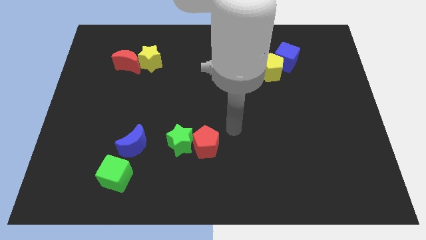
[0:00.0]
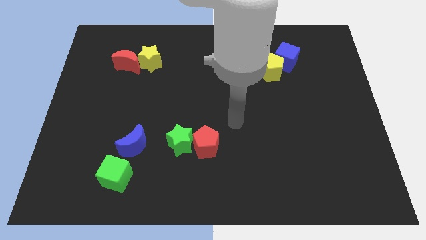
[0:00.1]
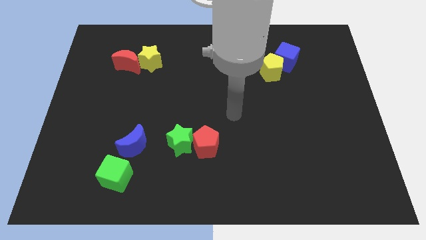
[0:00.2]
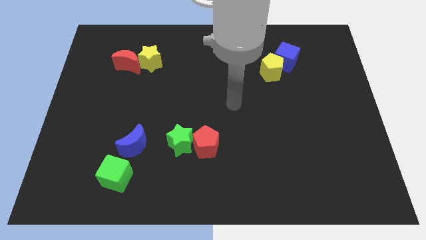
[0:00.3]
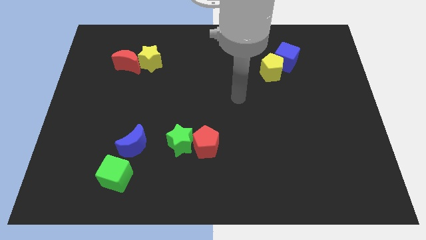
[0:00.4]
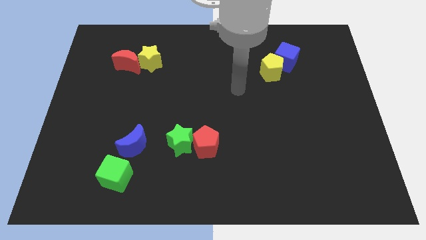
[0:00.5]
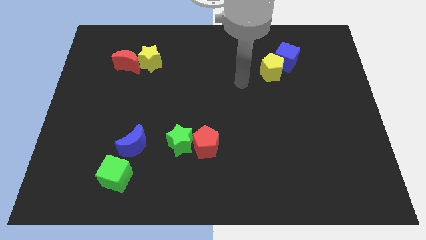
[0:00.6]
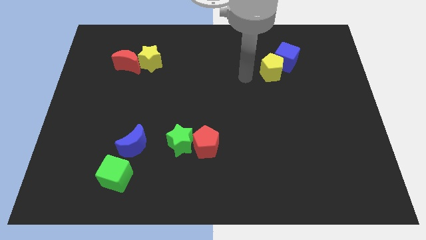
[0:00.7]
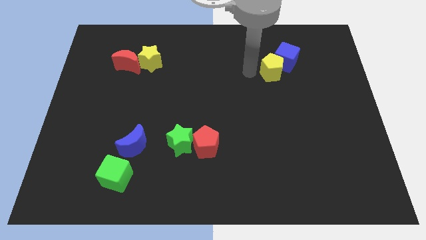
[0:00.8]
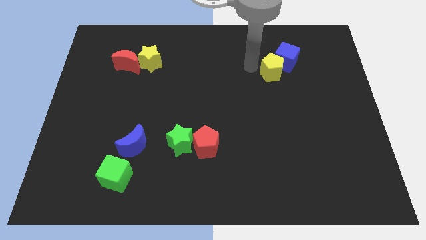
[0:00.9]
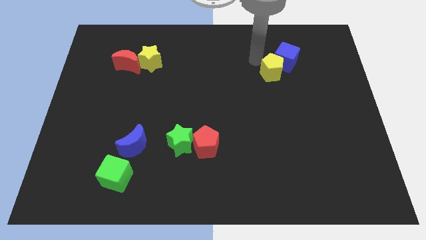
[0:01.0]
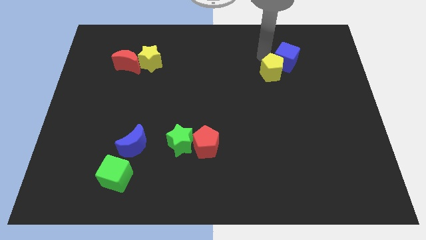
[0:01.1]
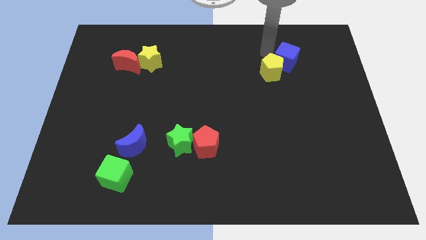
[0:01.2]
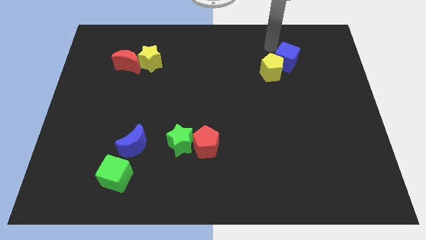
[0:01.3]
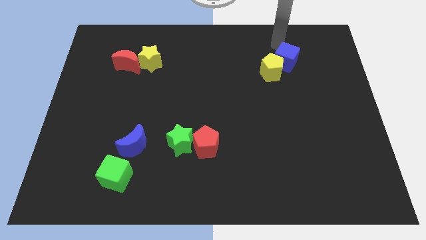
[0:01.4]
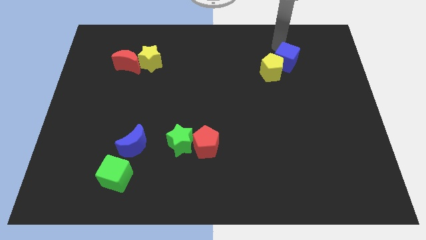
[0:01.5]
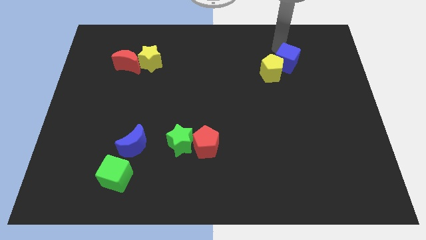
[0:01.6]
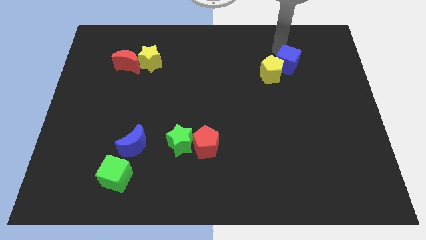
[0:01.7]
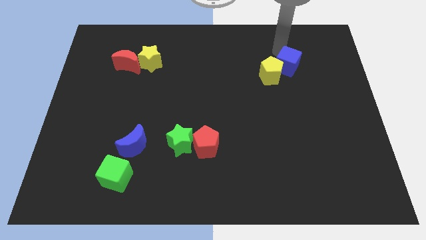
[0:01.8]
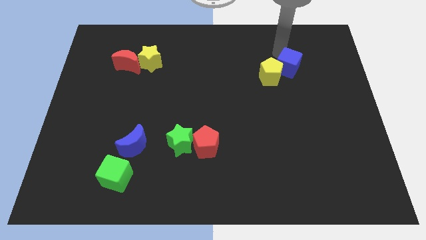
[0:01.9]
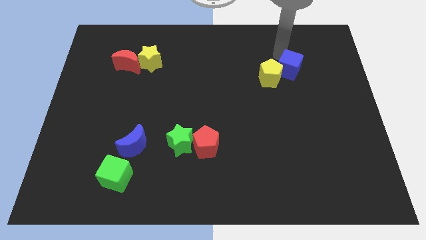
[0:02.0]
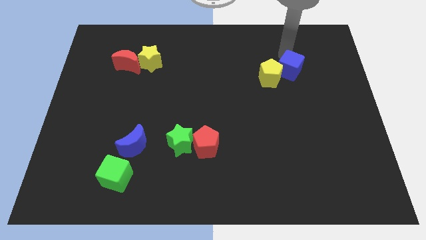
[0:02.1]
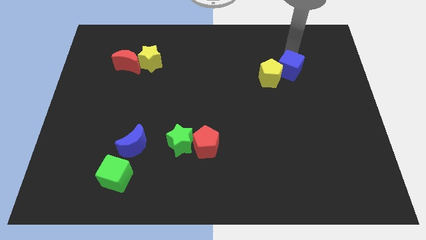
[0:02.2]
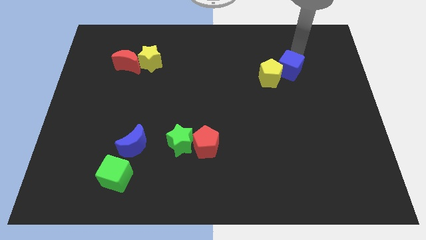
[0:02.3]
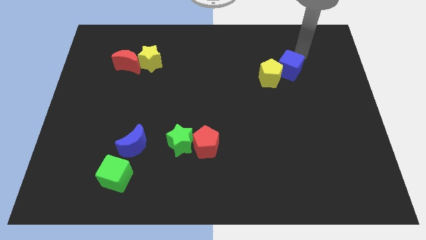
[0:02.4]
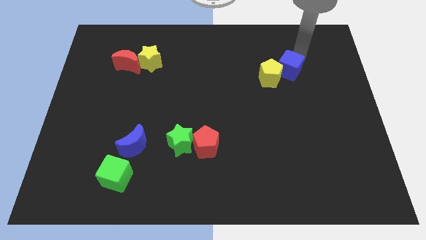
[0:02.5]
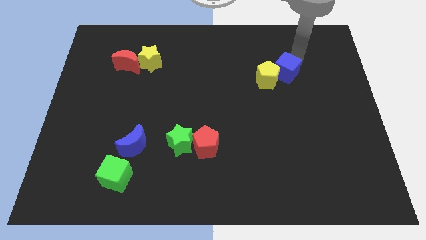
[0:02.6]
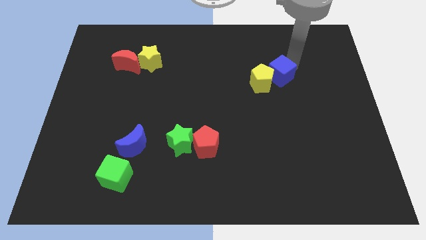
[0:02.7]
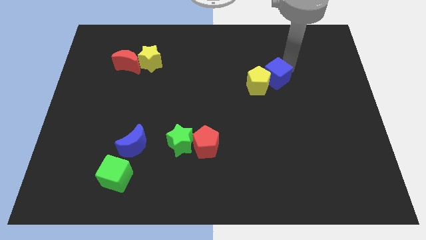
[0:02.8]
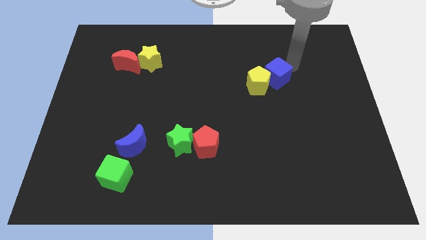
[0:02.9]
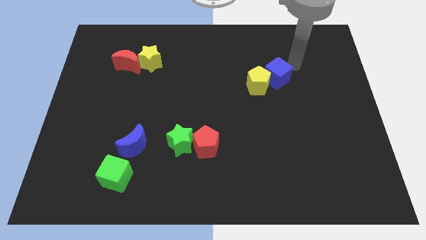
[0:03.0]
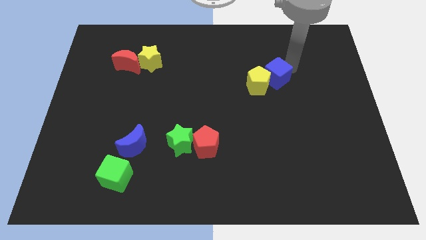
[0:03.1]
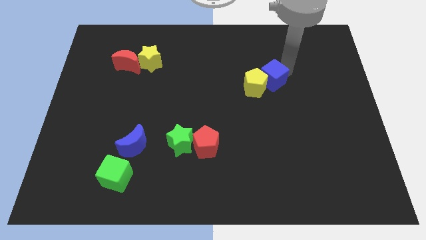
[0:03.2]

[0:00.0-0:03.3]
slightly push the blue cube downwards and to the left diagonally

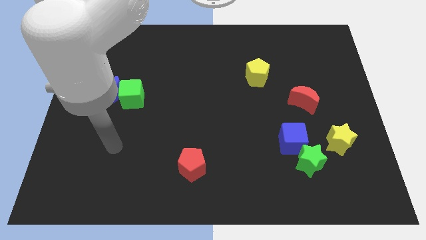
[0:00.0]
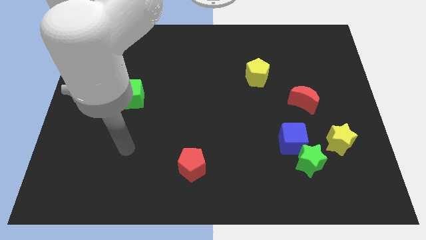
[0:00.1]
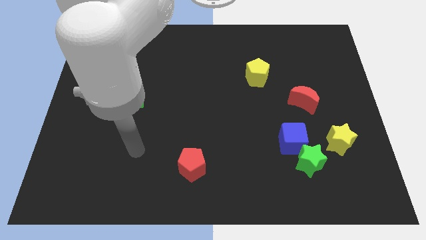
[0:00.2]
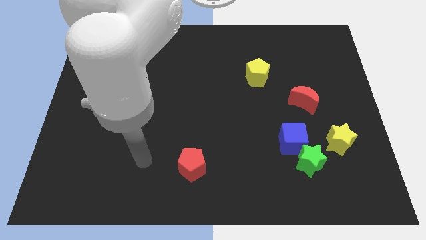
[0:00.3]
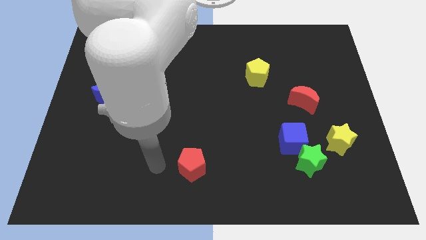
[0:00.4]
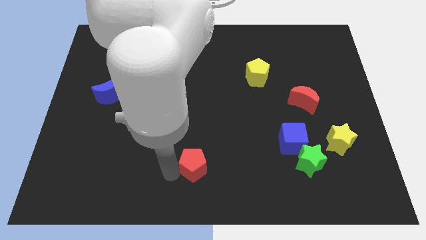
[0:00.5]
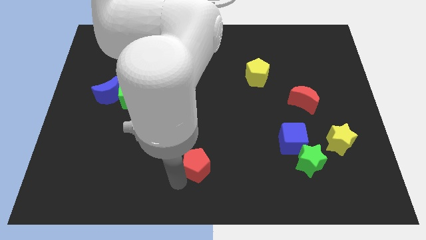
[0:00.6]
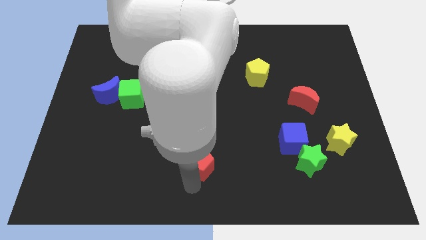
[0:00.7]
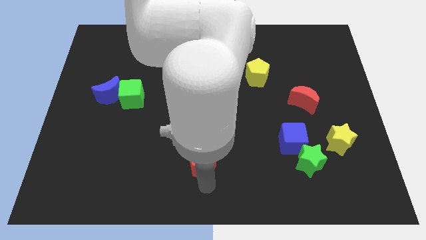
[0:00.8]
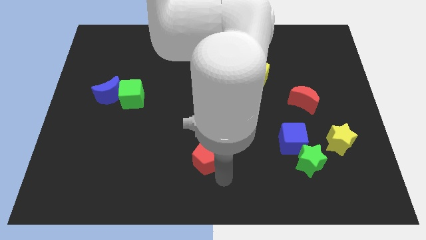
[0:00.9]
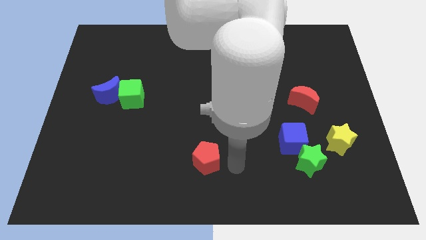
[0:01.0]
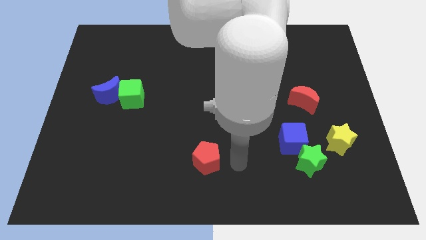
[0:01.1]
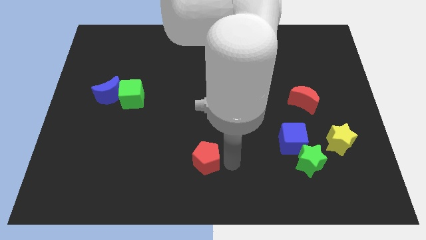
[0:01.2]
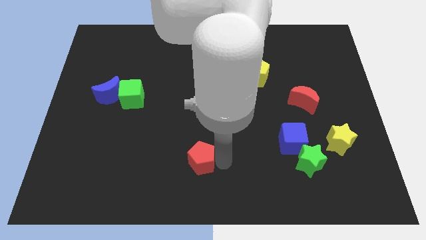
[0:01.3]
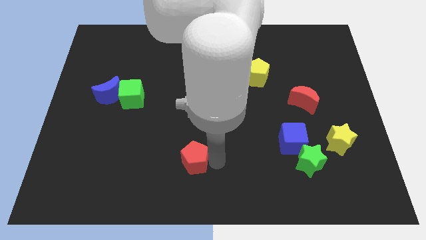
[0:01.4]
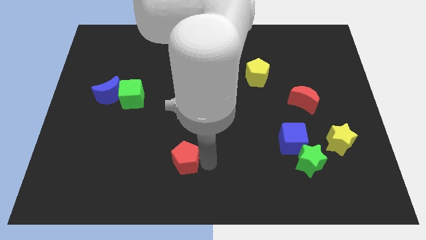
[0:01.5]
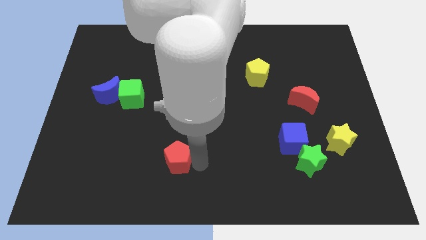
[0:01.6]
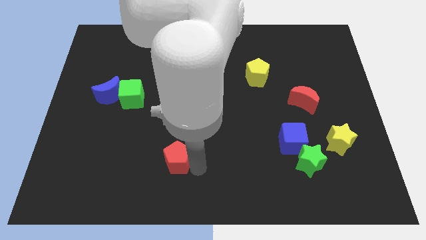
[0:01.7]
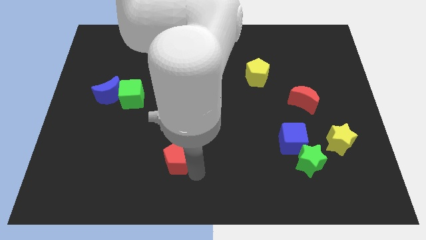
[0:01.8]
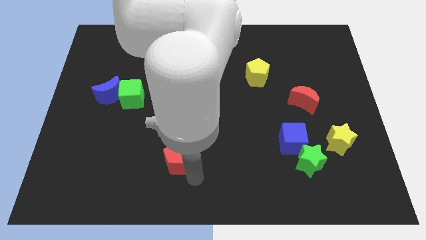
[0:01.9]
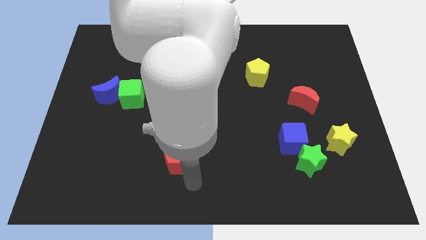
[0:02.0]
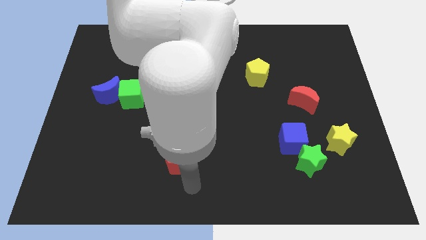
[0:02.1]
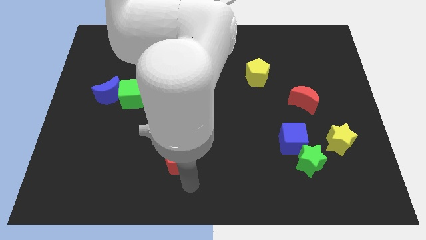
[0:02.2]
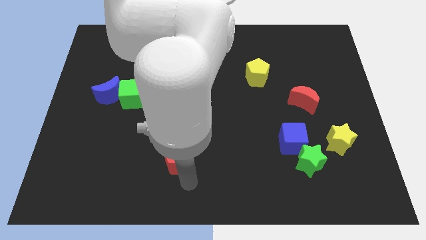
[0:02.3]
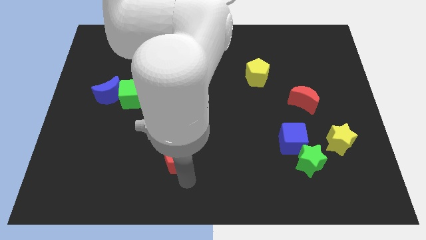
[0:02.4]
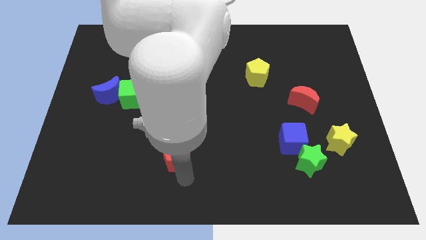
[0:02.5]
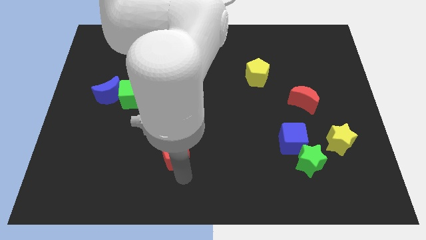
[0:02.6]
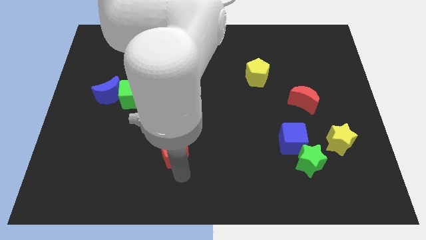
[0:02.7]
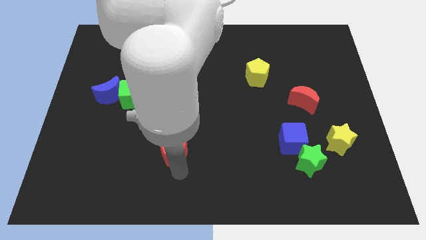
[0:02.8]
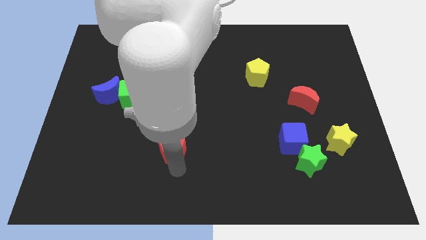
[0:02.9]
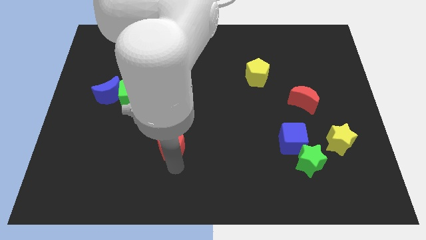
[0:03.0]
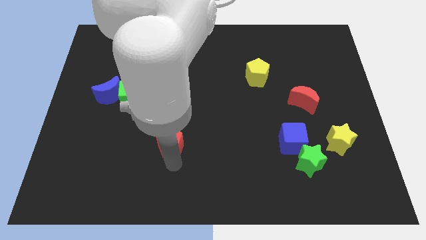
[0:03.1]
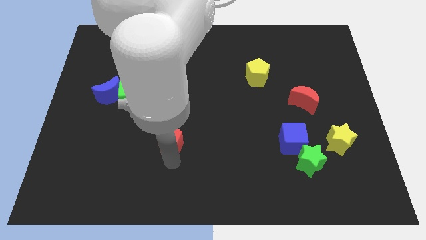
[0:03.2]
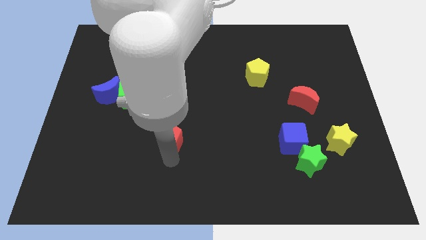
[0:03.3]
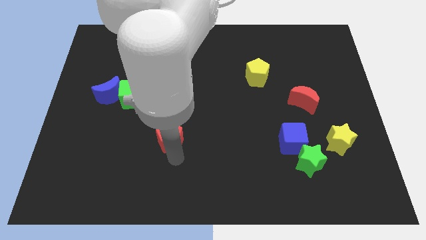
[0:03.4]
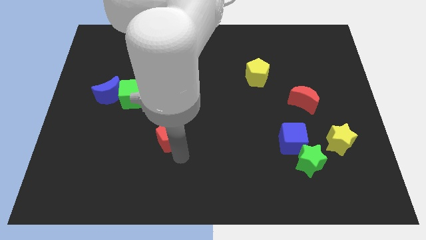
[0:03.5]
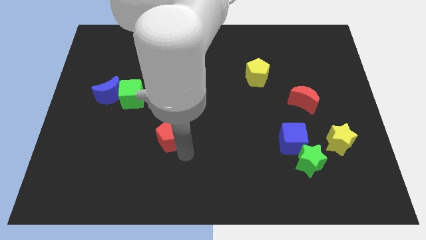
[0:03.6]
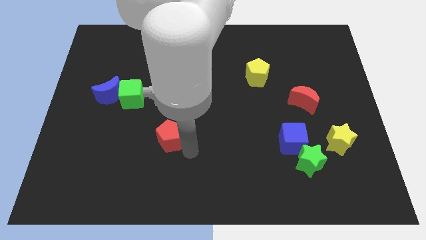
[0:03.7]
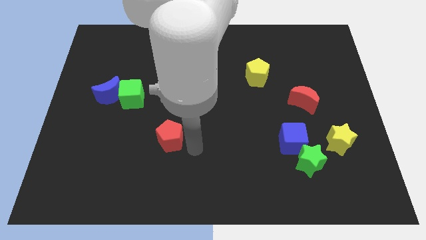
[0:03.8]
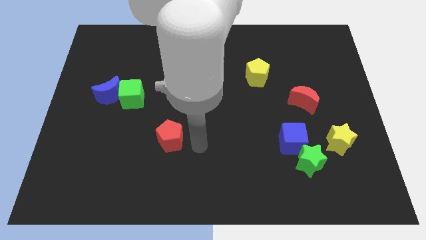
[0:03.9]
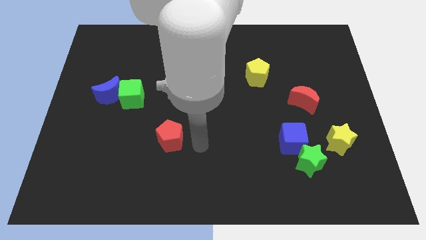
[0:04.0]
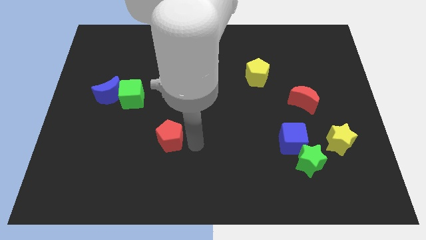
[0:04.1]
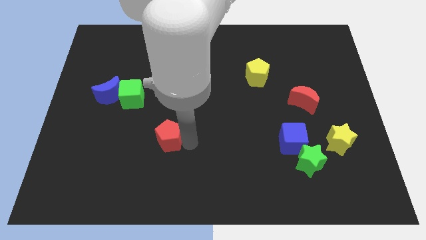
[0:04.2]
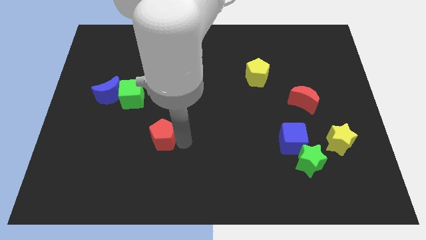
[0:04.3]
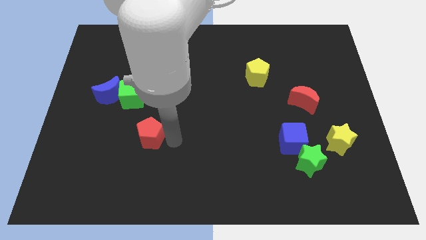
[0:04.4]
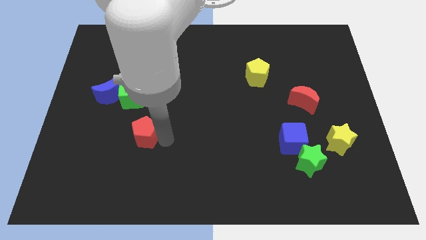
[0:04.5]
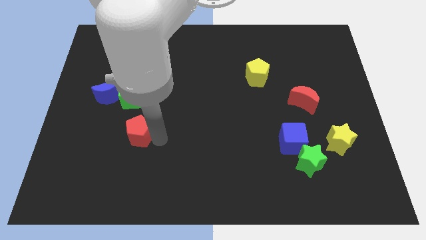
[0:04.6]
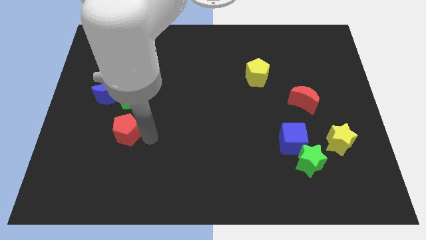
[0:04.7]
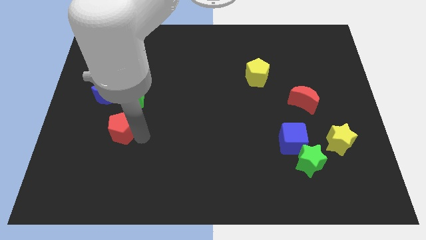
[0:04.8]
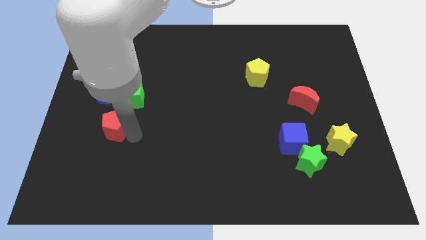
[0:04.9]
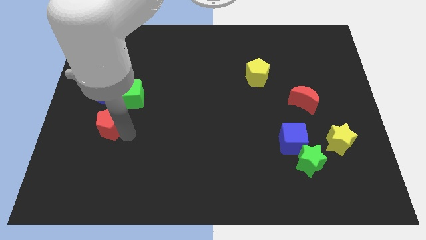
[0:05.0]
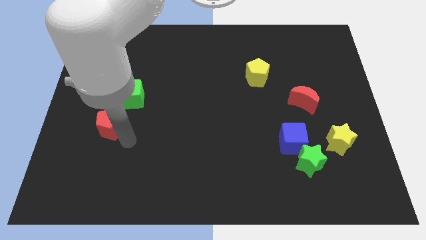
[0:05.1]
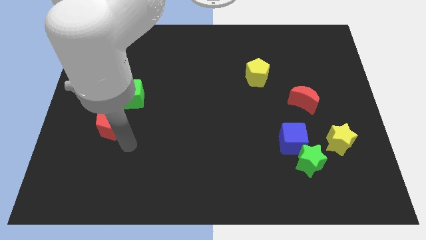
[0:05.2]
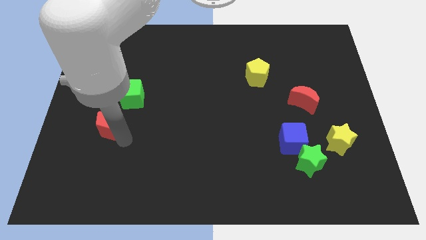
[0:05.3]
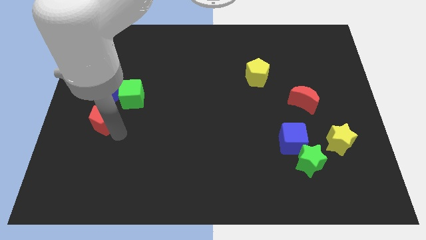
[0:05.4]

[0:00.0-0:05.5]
slide the red pentagon up and then to the left
